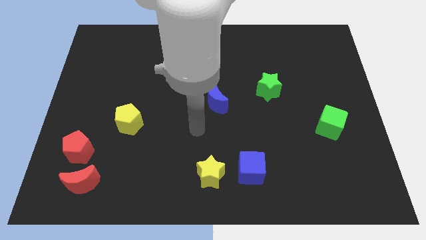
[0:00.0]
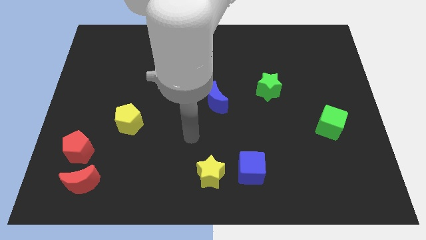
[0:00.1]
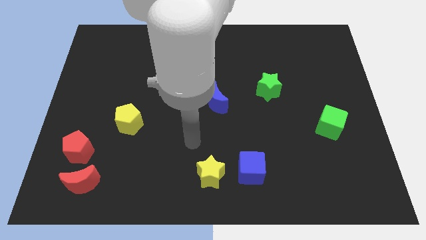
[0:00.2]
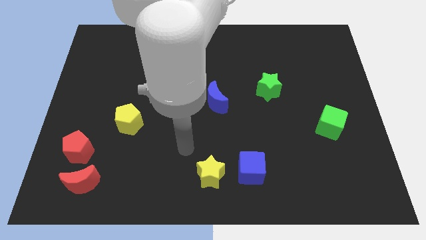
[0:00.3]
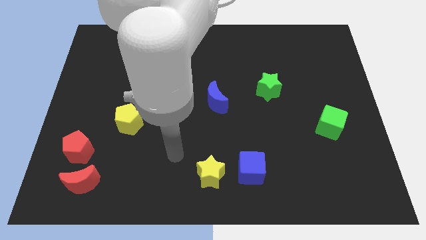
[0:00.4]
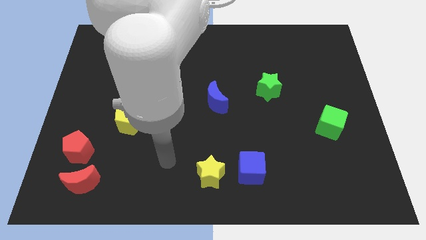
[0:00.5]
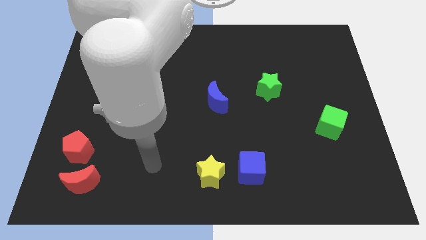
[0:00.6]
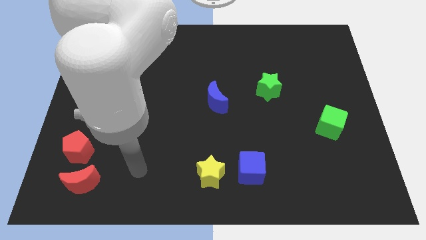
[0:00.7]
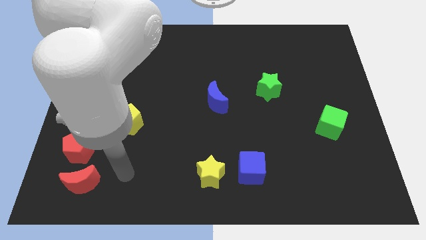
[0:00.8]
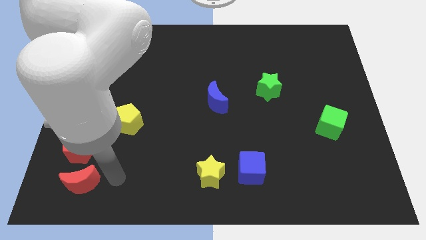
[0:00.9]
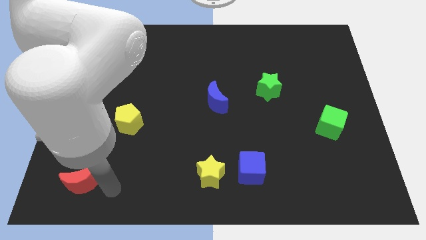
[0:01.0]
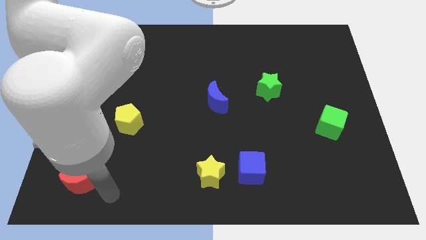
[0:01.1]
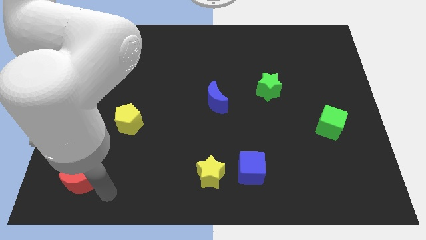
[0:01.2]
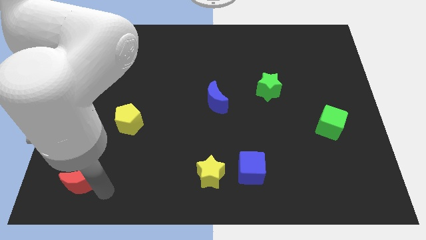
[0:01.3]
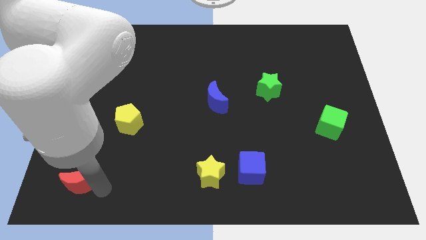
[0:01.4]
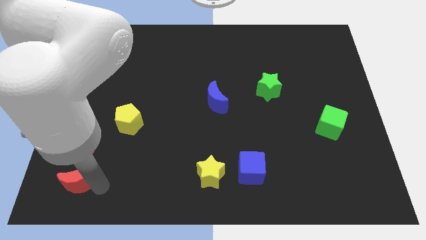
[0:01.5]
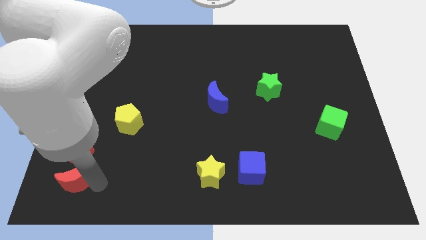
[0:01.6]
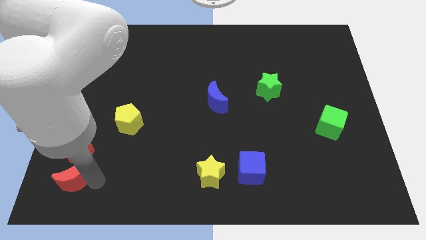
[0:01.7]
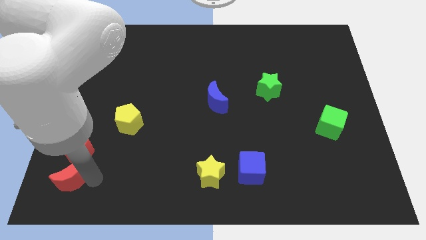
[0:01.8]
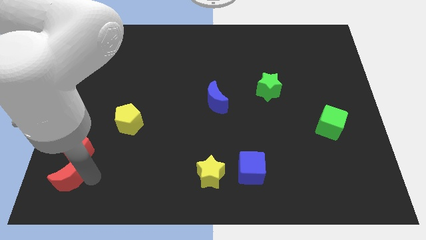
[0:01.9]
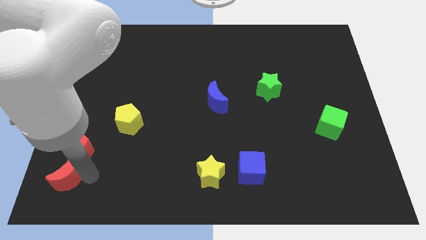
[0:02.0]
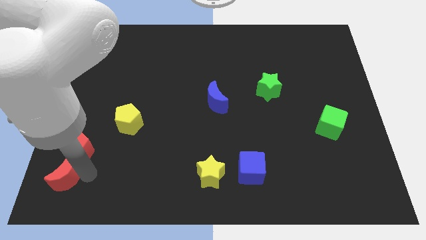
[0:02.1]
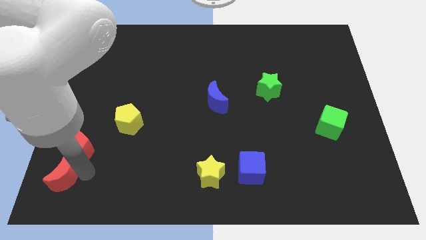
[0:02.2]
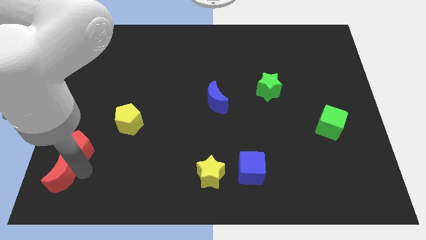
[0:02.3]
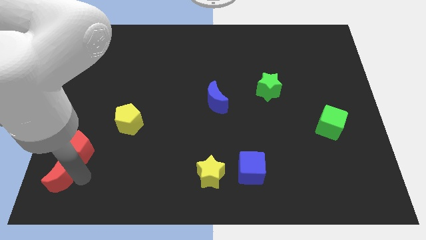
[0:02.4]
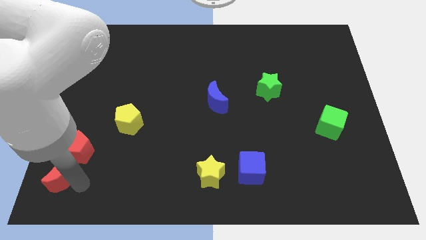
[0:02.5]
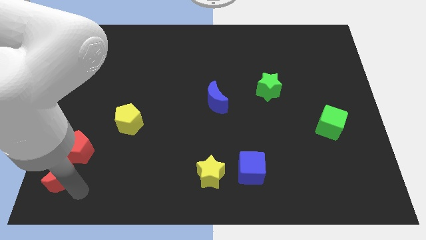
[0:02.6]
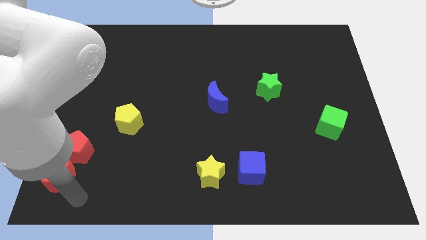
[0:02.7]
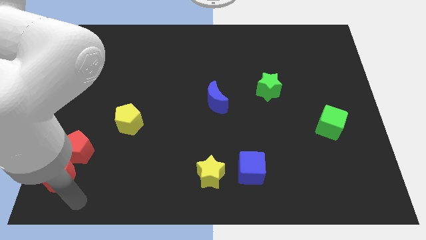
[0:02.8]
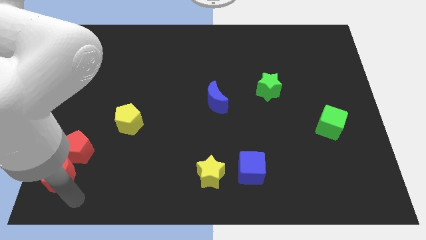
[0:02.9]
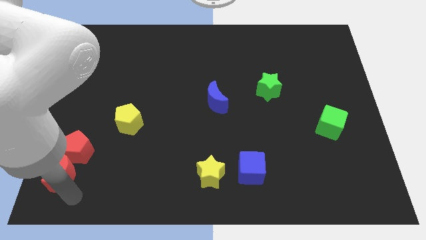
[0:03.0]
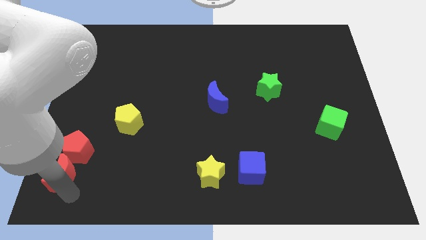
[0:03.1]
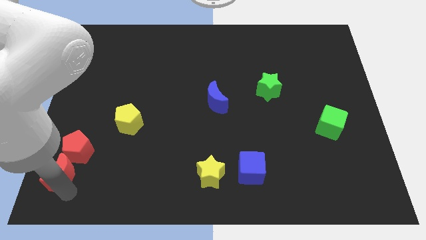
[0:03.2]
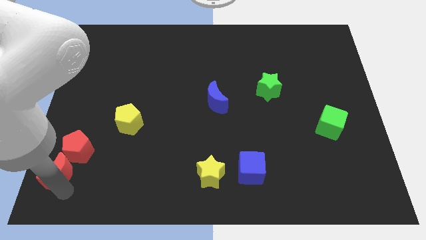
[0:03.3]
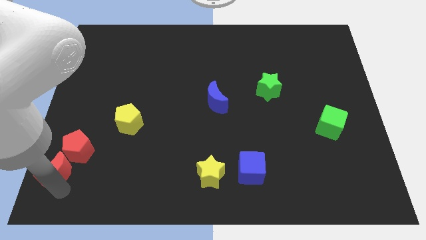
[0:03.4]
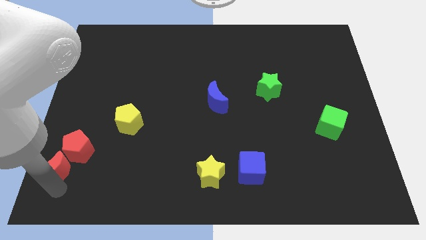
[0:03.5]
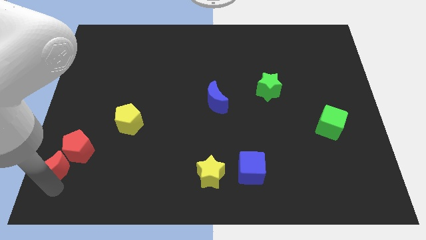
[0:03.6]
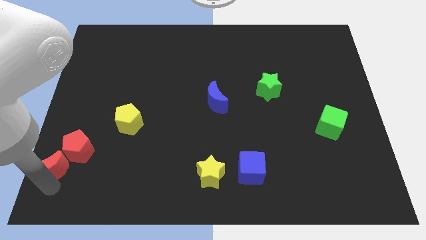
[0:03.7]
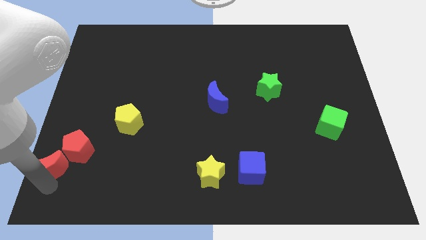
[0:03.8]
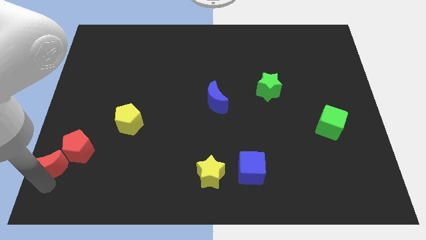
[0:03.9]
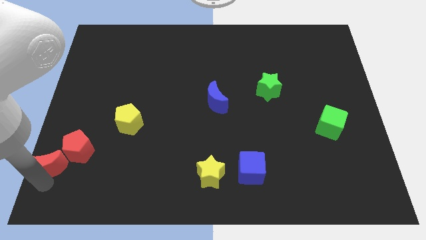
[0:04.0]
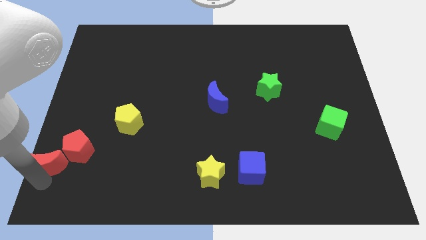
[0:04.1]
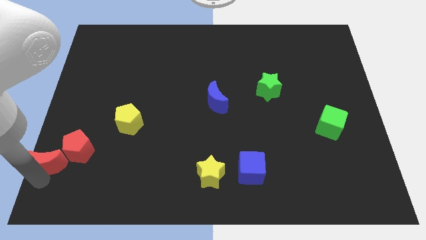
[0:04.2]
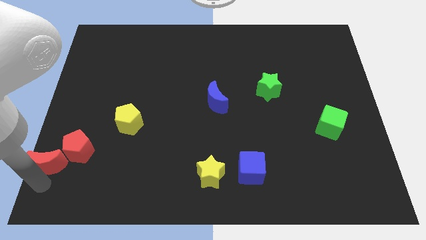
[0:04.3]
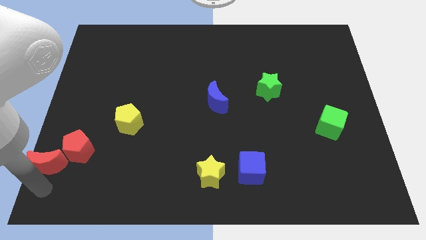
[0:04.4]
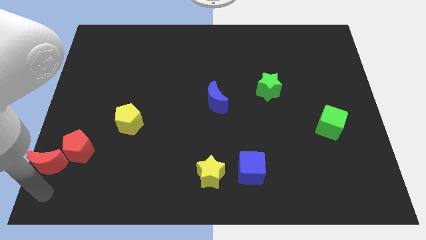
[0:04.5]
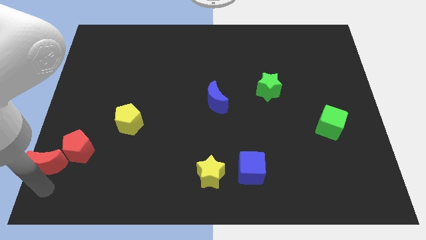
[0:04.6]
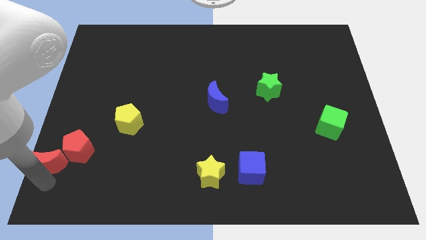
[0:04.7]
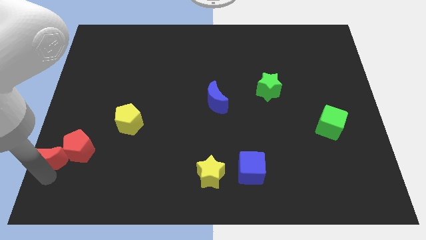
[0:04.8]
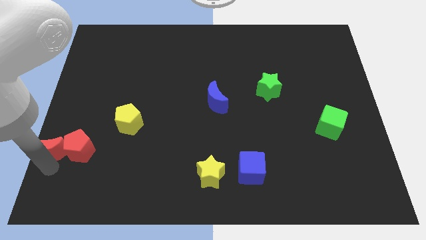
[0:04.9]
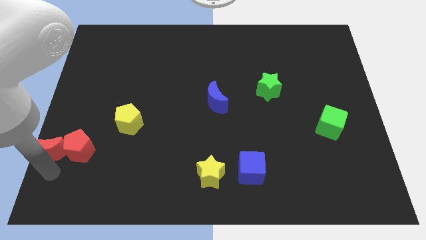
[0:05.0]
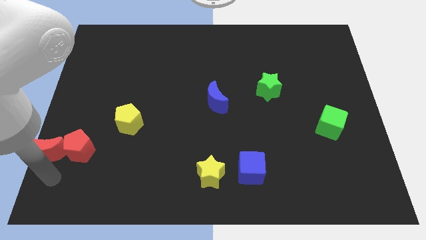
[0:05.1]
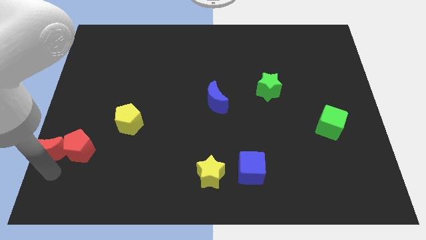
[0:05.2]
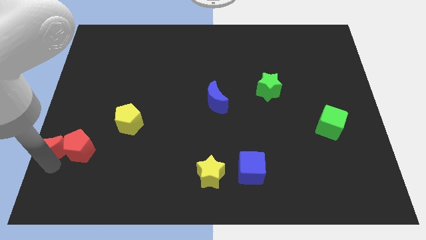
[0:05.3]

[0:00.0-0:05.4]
slide the red moon to the left side of the board
